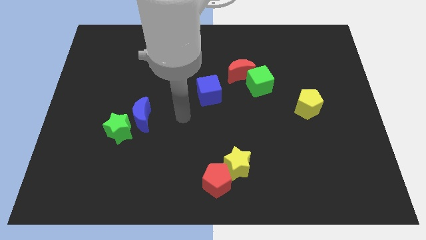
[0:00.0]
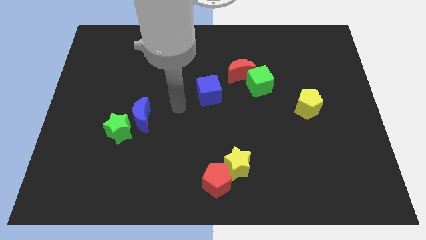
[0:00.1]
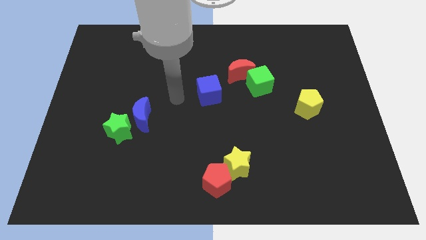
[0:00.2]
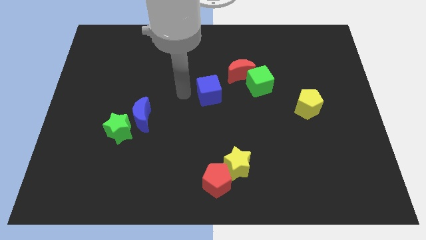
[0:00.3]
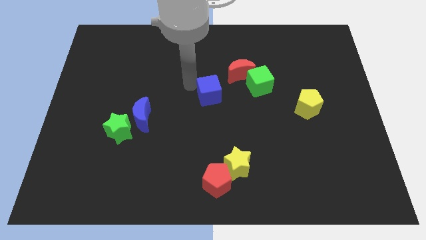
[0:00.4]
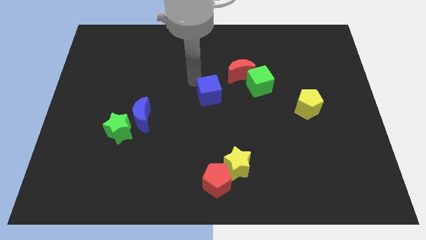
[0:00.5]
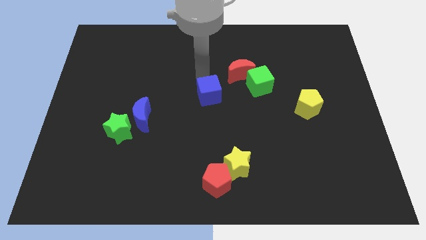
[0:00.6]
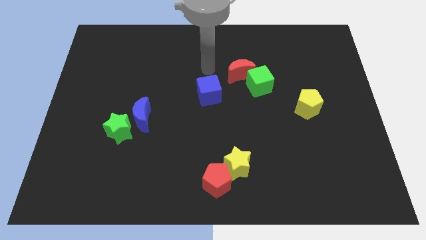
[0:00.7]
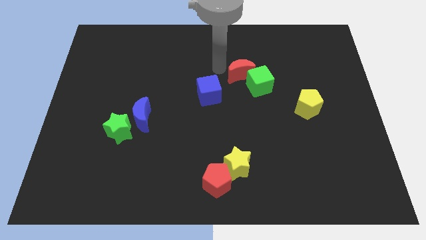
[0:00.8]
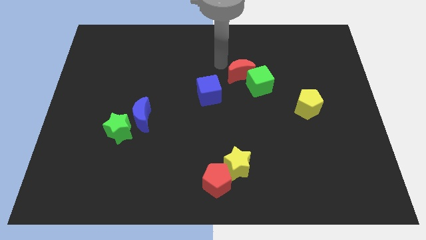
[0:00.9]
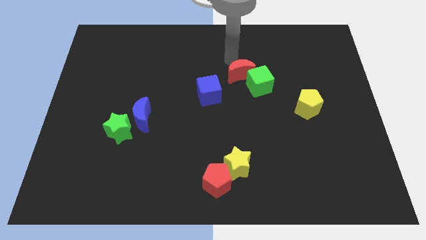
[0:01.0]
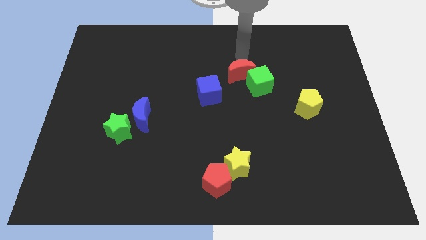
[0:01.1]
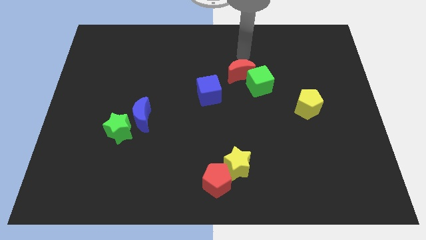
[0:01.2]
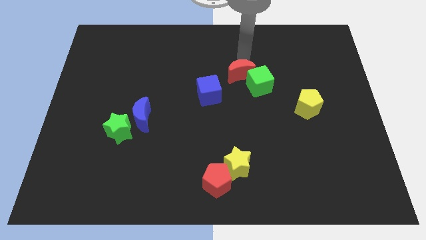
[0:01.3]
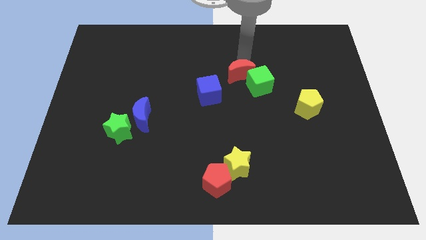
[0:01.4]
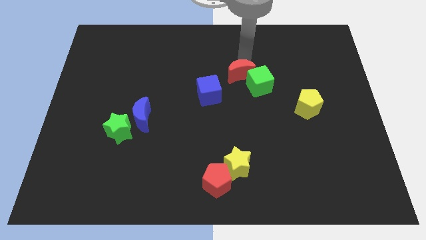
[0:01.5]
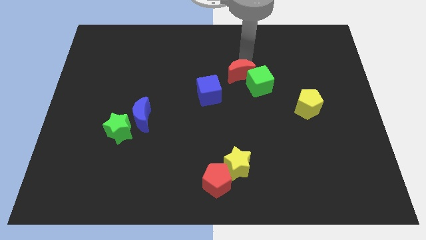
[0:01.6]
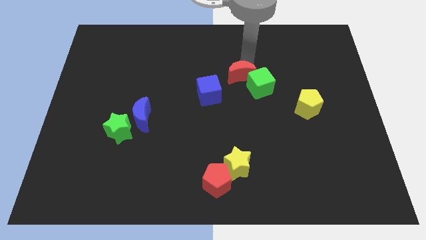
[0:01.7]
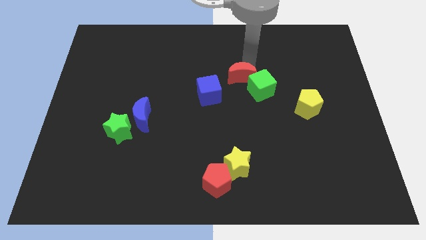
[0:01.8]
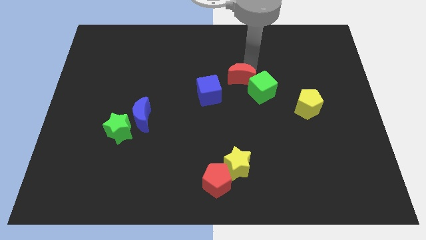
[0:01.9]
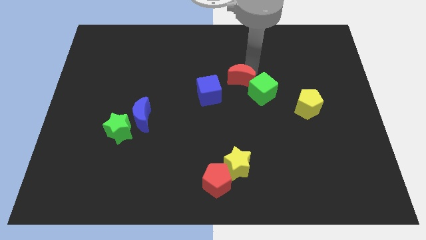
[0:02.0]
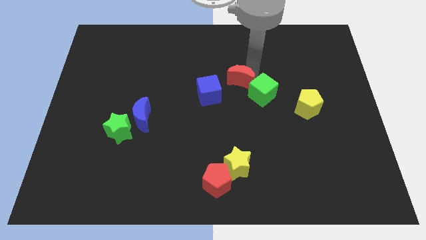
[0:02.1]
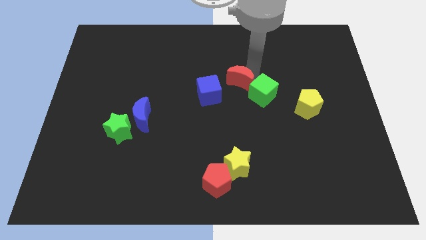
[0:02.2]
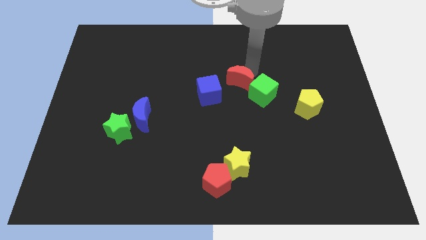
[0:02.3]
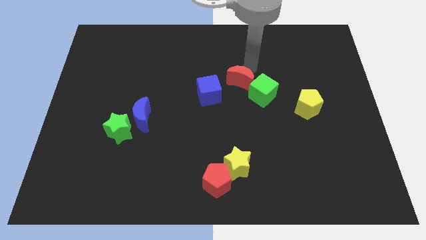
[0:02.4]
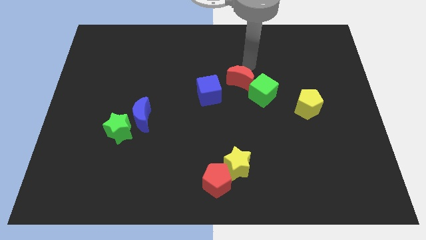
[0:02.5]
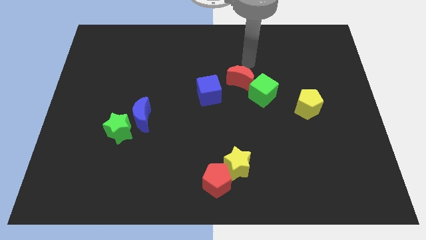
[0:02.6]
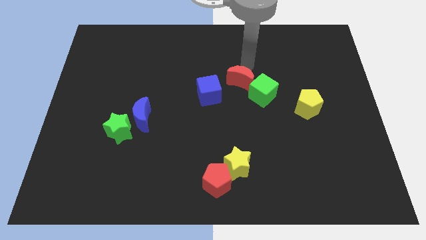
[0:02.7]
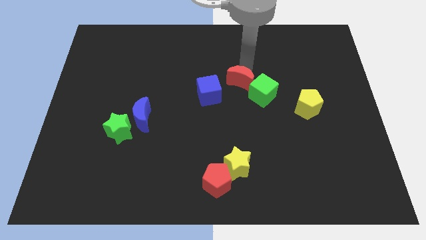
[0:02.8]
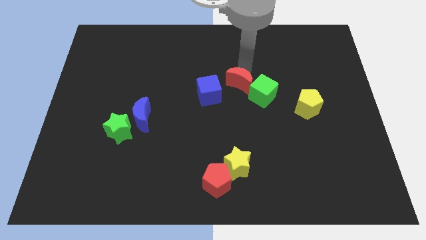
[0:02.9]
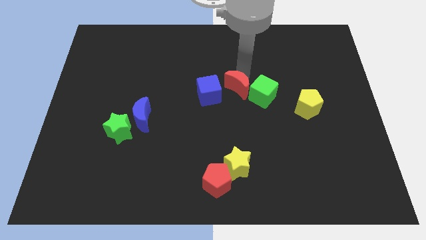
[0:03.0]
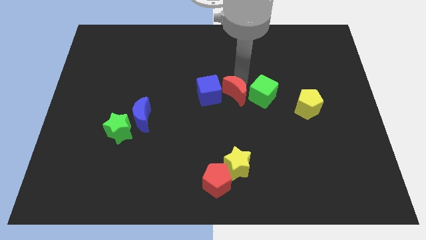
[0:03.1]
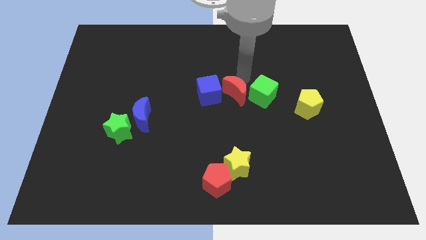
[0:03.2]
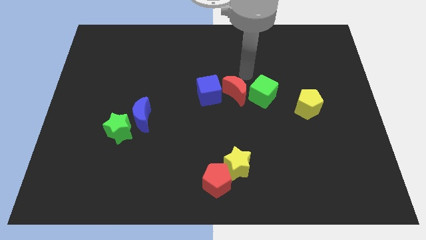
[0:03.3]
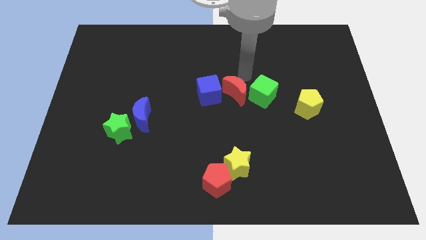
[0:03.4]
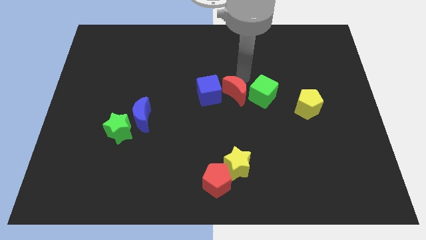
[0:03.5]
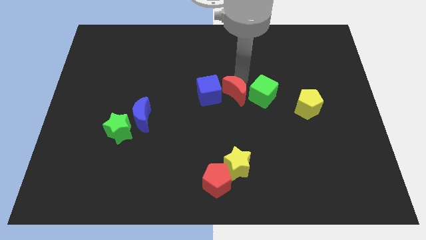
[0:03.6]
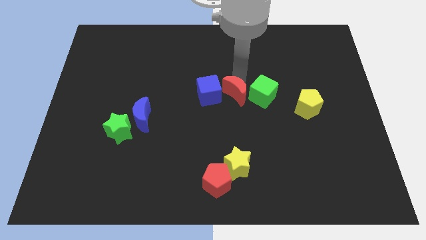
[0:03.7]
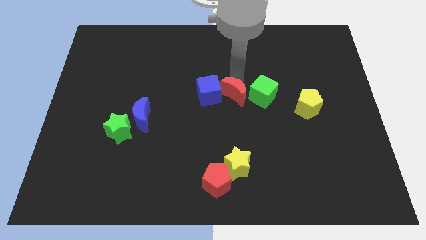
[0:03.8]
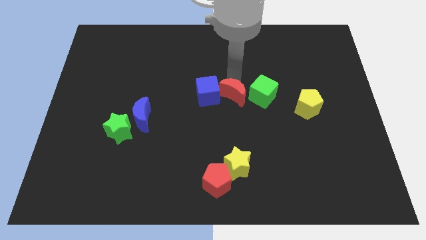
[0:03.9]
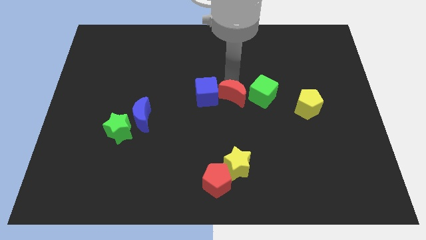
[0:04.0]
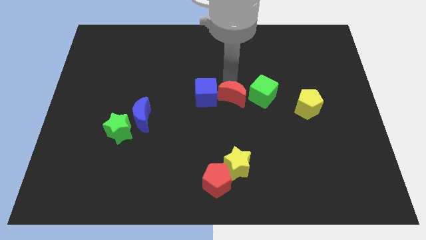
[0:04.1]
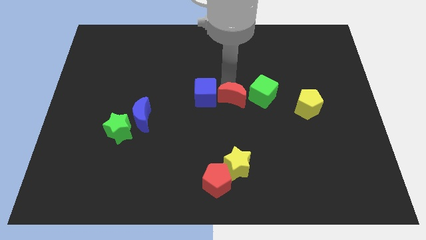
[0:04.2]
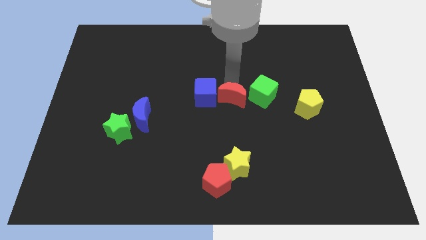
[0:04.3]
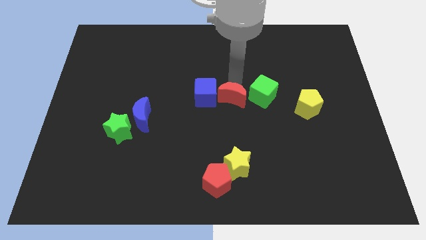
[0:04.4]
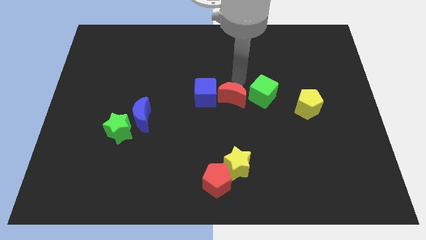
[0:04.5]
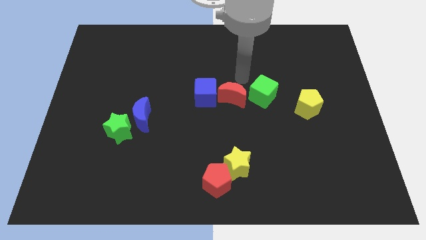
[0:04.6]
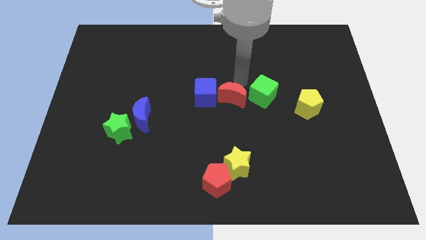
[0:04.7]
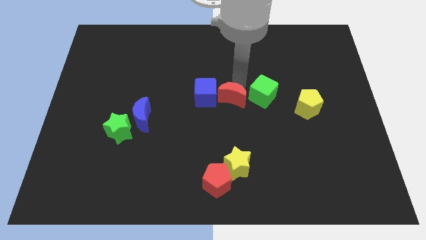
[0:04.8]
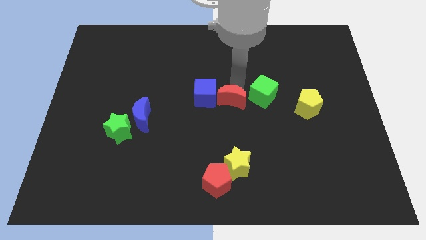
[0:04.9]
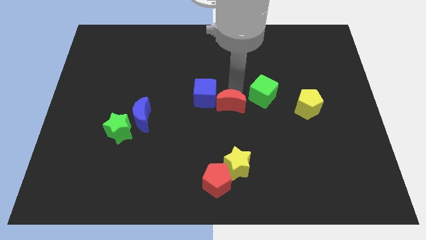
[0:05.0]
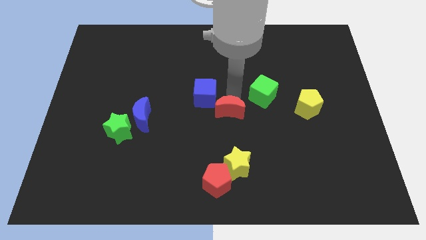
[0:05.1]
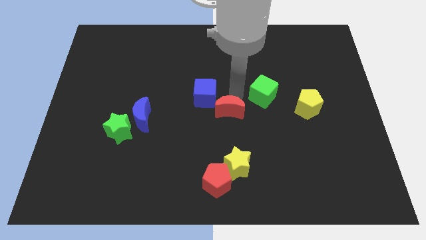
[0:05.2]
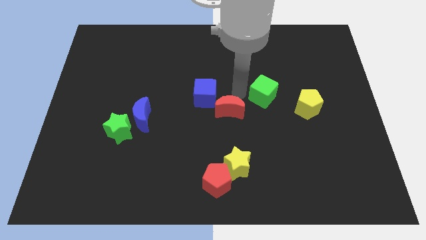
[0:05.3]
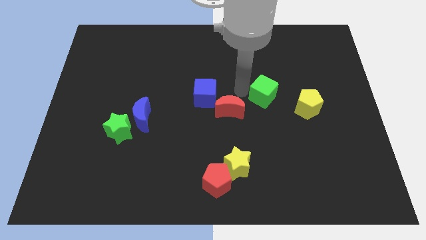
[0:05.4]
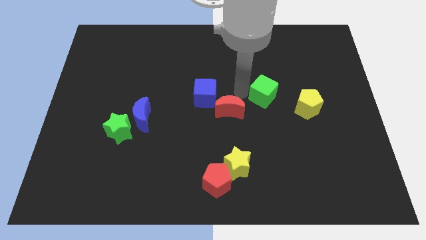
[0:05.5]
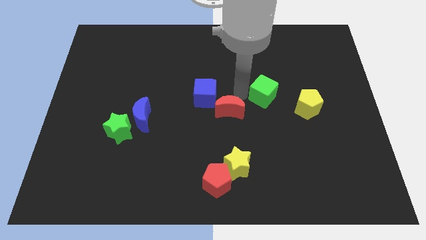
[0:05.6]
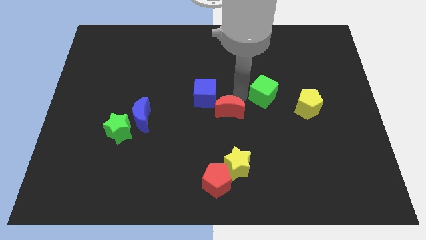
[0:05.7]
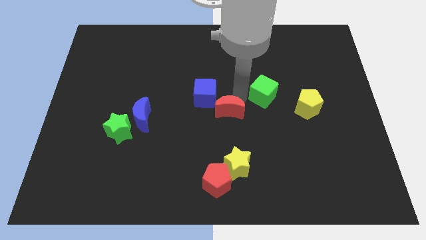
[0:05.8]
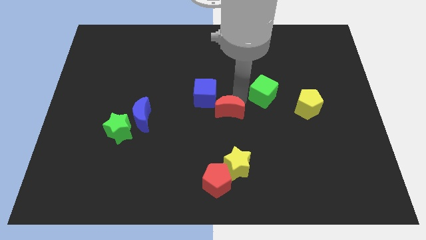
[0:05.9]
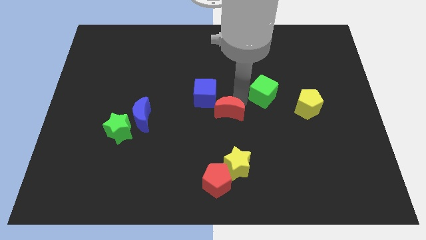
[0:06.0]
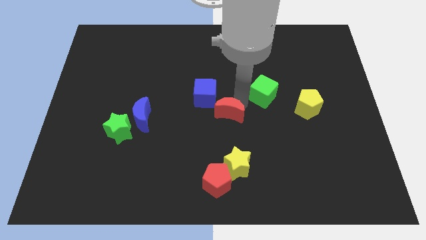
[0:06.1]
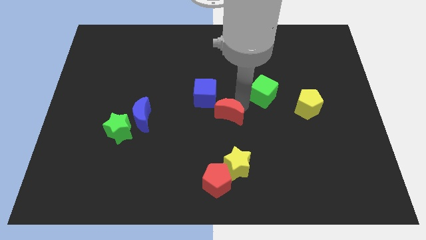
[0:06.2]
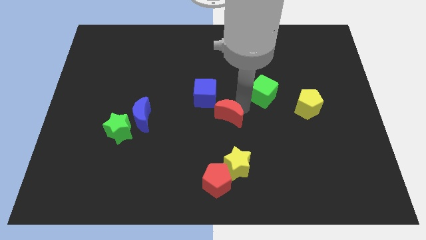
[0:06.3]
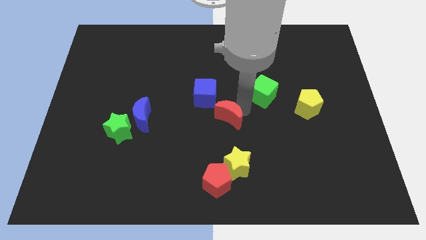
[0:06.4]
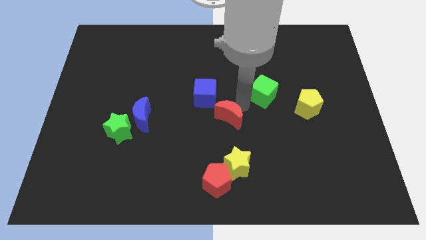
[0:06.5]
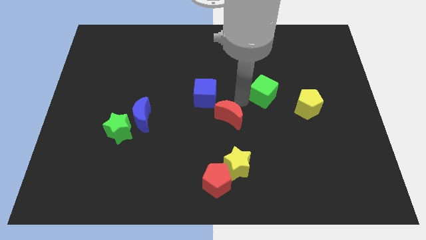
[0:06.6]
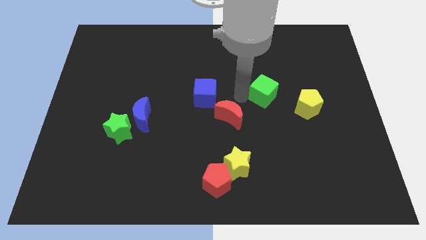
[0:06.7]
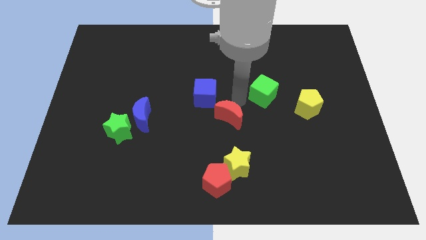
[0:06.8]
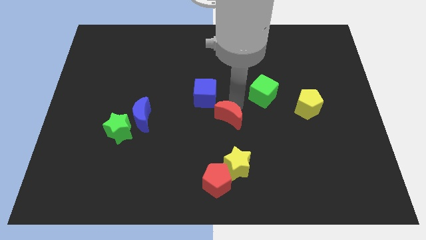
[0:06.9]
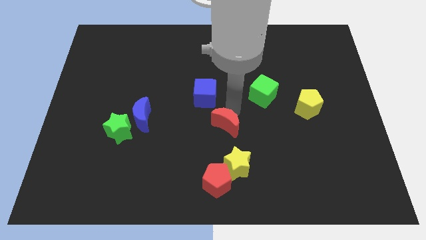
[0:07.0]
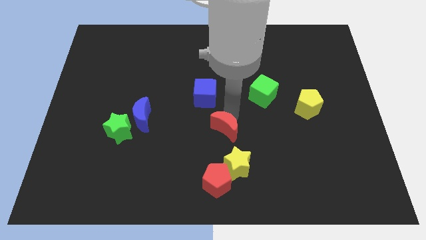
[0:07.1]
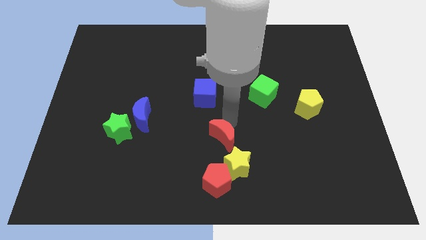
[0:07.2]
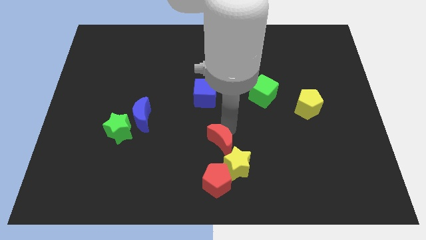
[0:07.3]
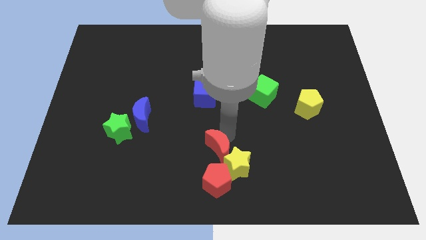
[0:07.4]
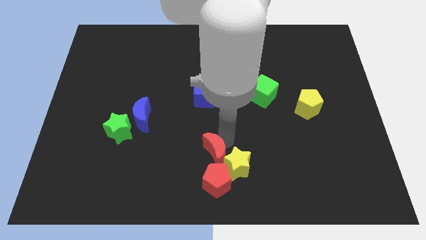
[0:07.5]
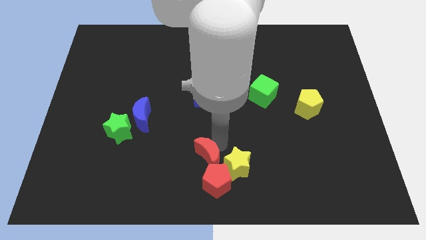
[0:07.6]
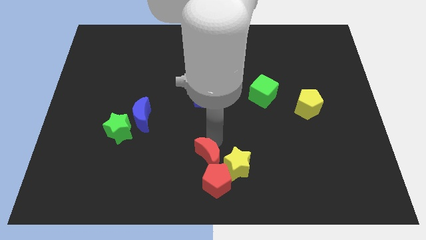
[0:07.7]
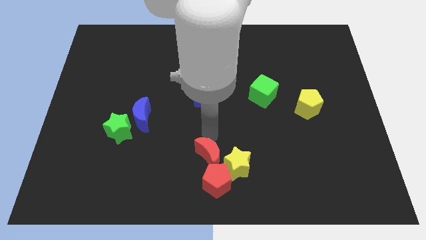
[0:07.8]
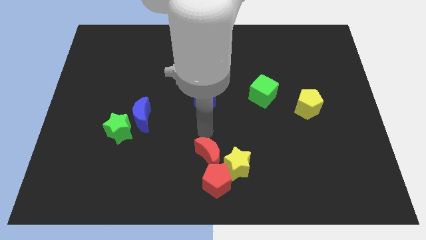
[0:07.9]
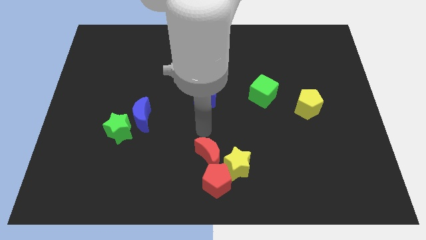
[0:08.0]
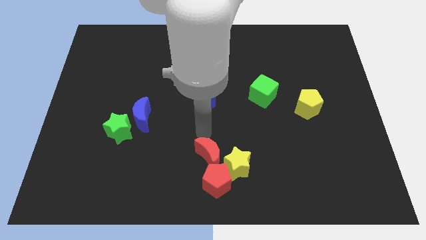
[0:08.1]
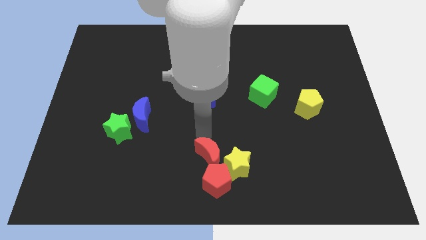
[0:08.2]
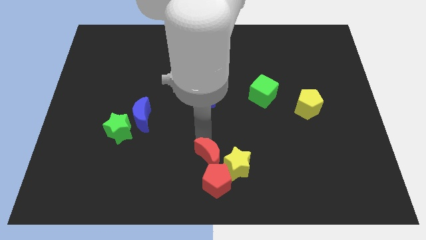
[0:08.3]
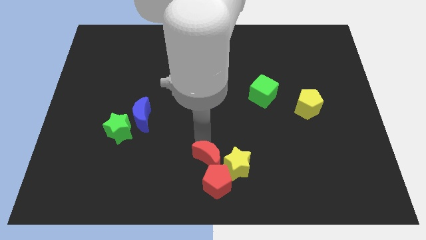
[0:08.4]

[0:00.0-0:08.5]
put the red moon towards the red pentagon
